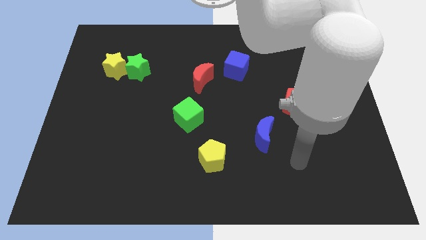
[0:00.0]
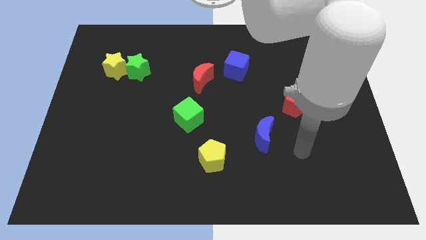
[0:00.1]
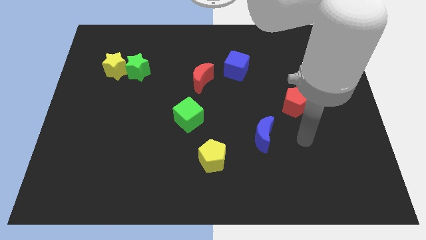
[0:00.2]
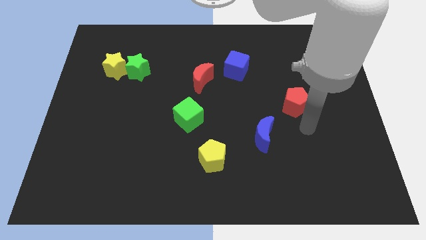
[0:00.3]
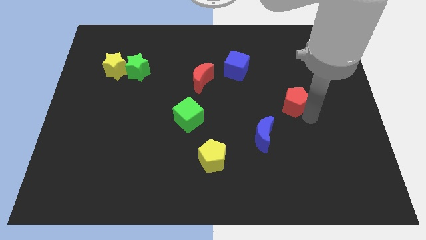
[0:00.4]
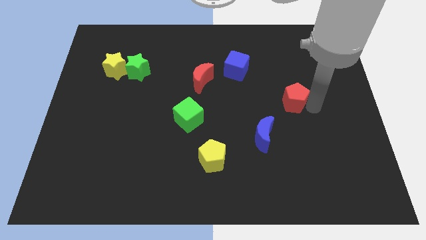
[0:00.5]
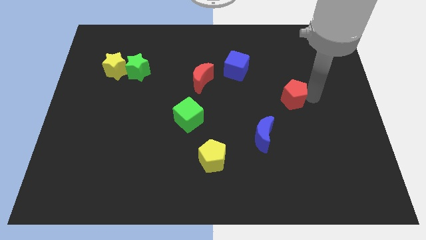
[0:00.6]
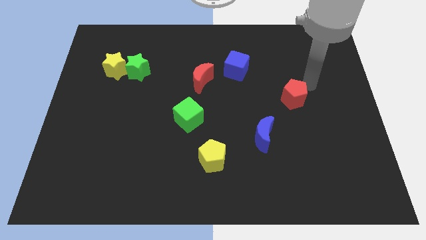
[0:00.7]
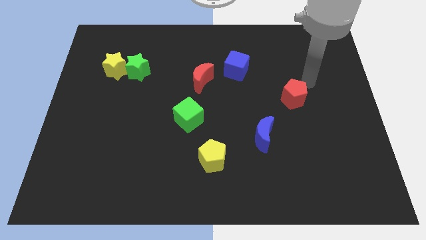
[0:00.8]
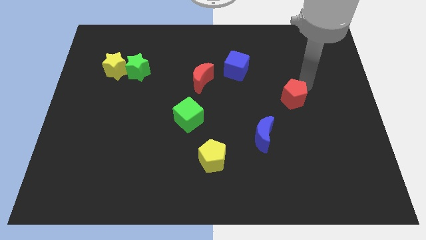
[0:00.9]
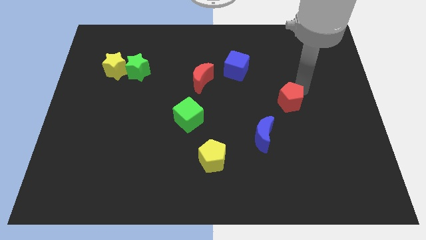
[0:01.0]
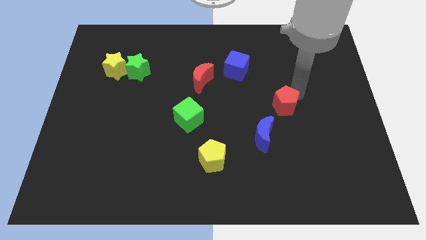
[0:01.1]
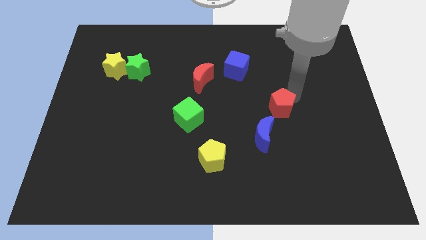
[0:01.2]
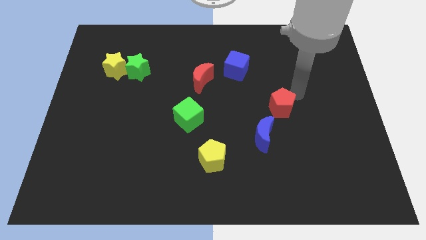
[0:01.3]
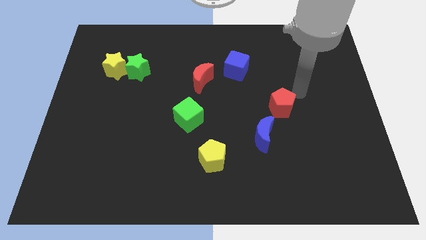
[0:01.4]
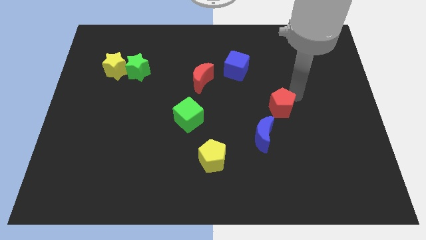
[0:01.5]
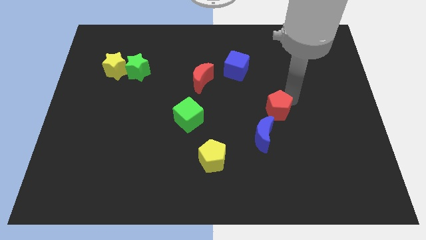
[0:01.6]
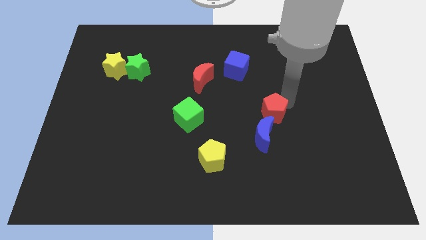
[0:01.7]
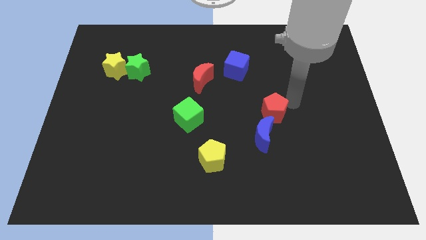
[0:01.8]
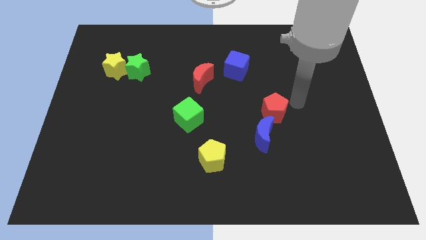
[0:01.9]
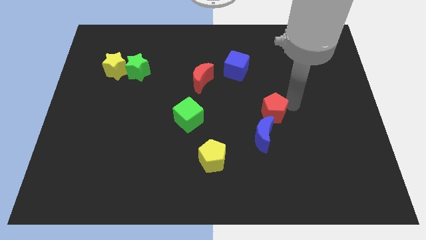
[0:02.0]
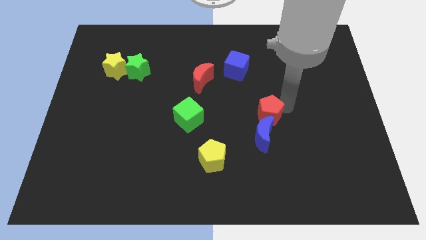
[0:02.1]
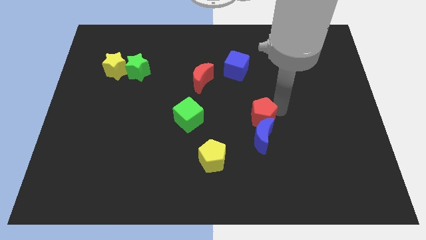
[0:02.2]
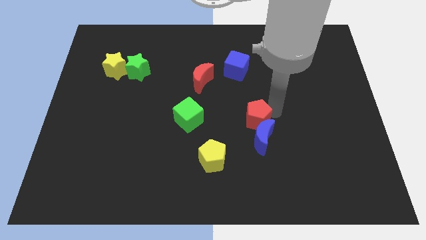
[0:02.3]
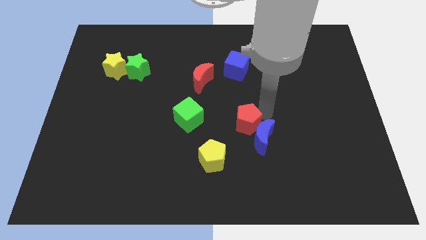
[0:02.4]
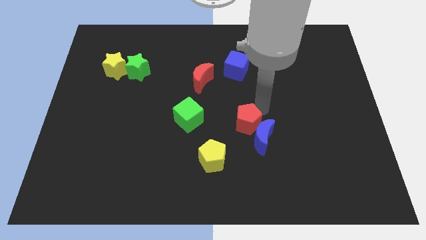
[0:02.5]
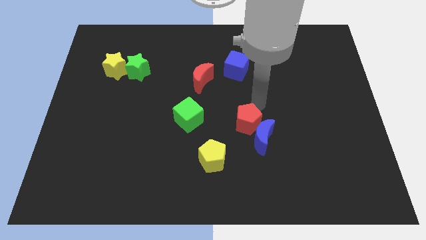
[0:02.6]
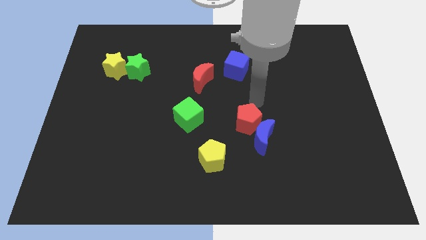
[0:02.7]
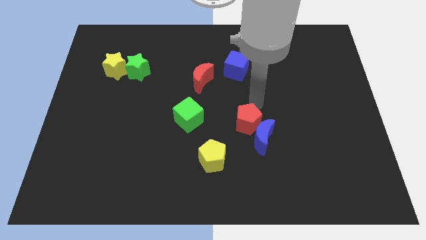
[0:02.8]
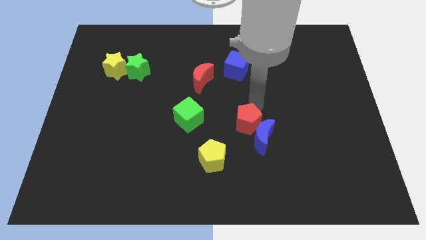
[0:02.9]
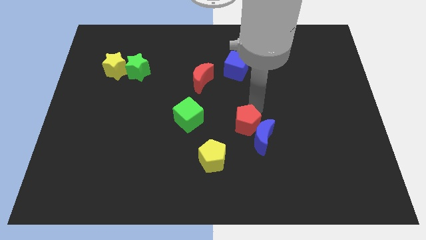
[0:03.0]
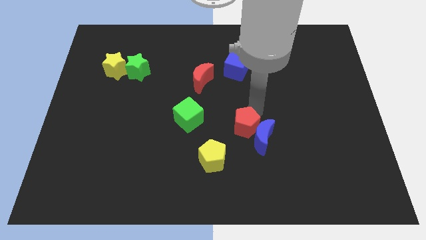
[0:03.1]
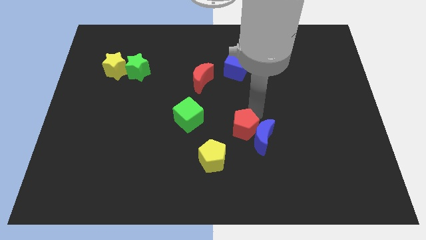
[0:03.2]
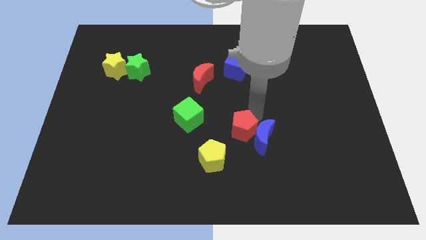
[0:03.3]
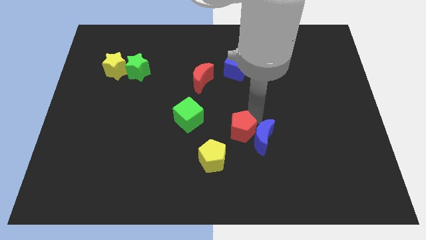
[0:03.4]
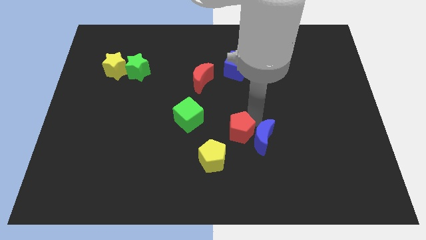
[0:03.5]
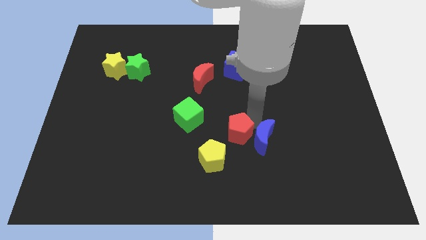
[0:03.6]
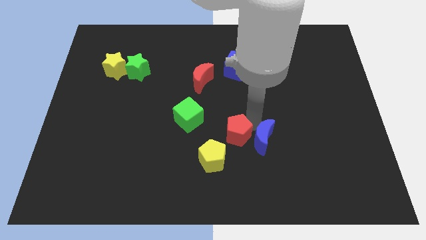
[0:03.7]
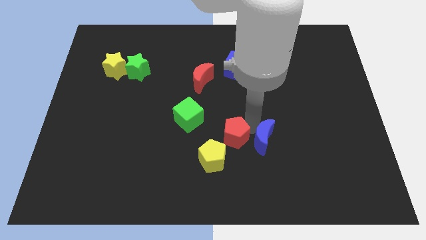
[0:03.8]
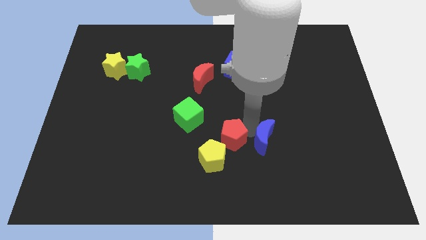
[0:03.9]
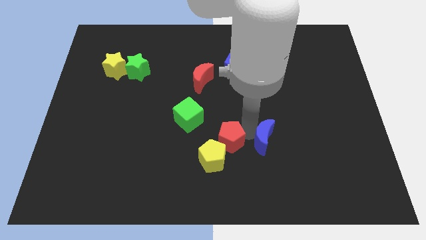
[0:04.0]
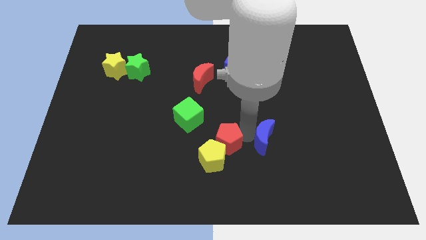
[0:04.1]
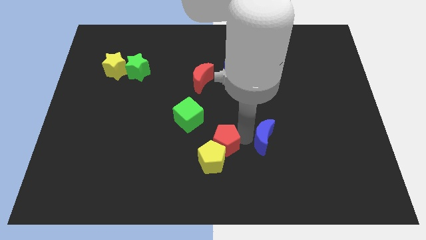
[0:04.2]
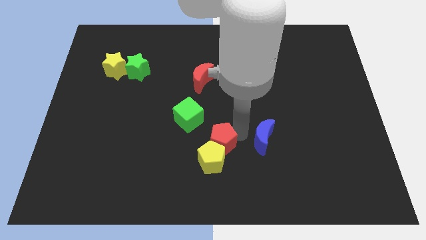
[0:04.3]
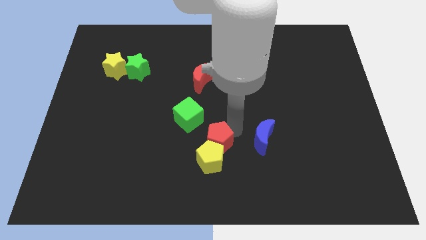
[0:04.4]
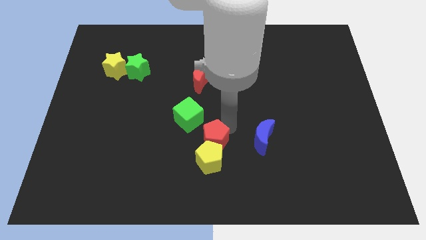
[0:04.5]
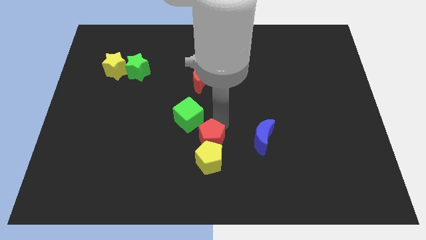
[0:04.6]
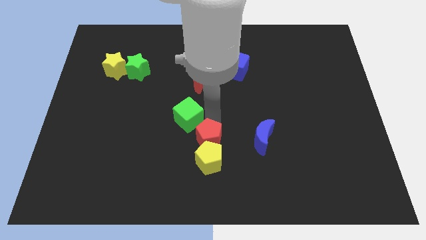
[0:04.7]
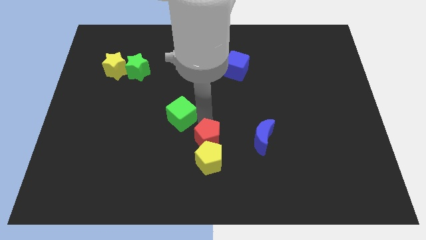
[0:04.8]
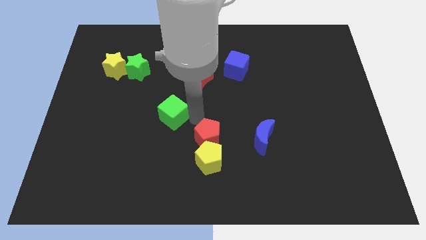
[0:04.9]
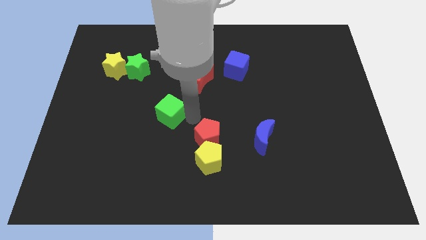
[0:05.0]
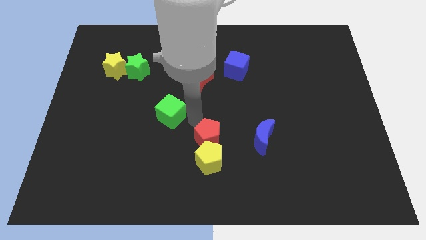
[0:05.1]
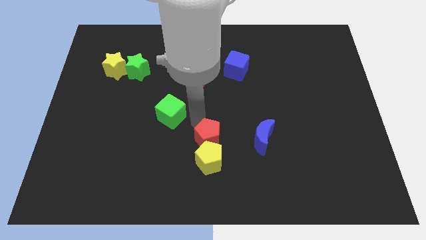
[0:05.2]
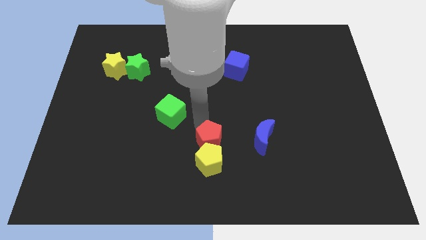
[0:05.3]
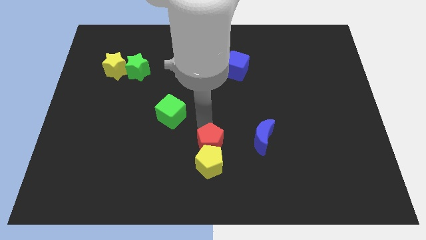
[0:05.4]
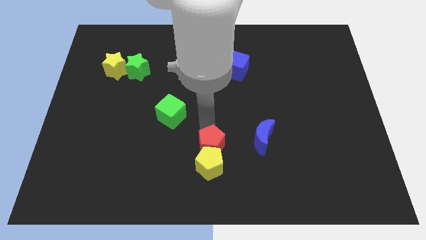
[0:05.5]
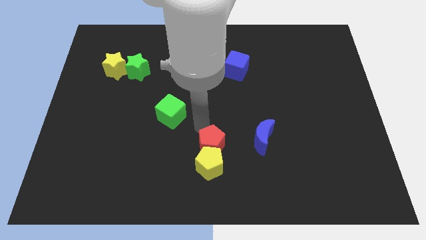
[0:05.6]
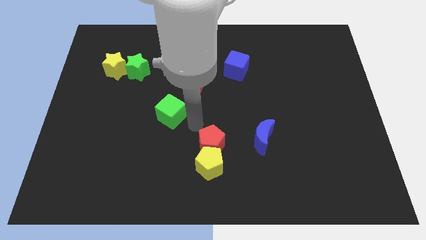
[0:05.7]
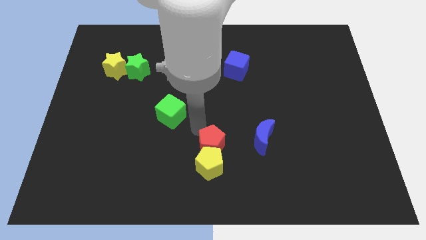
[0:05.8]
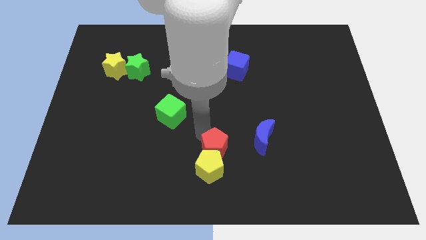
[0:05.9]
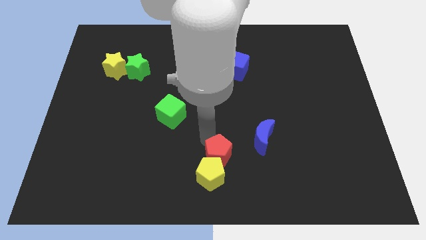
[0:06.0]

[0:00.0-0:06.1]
put the red pentagon to the bottom side

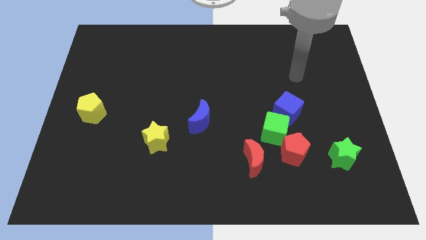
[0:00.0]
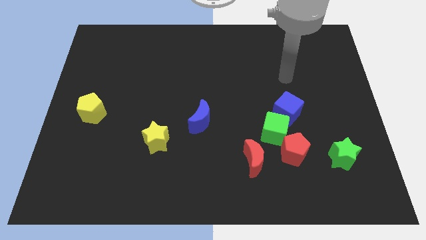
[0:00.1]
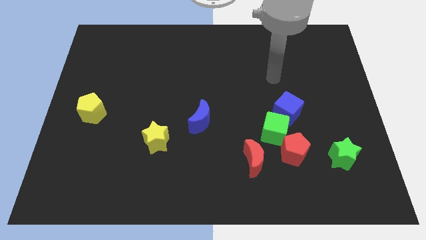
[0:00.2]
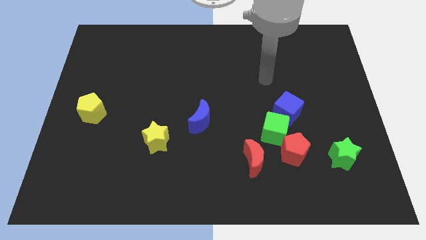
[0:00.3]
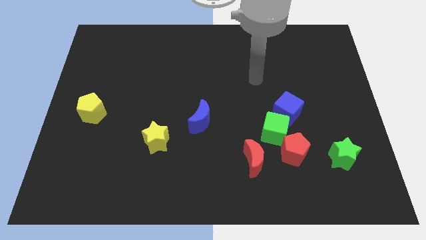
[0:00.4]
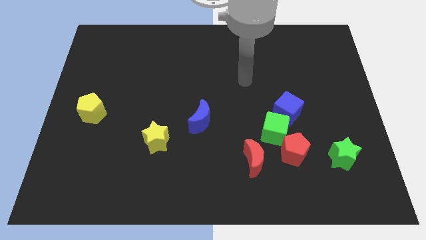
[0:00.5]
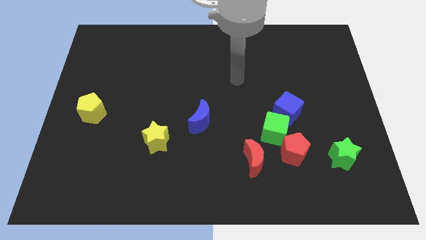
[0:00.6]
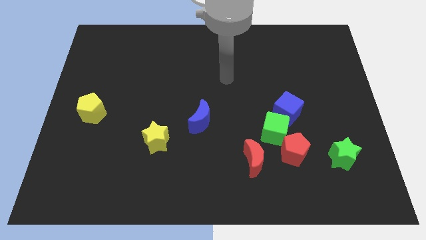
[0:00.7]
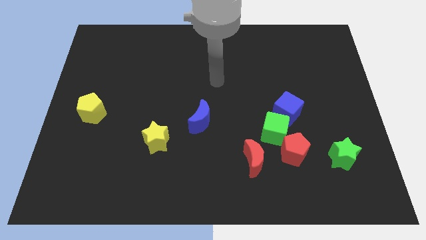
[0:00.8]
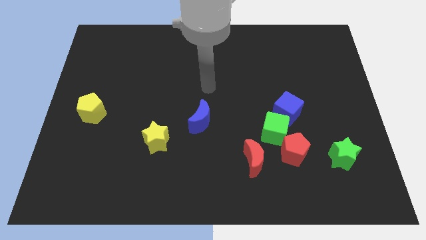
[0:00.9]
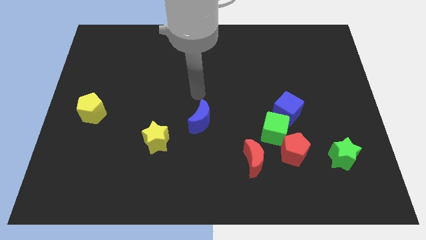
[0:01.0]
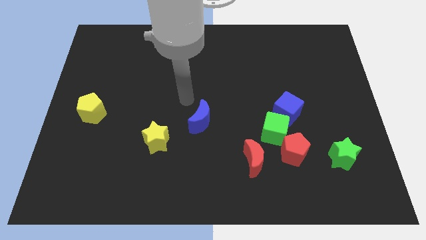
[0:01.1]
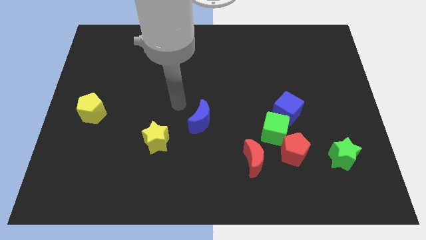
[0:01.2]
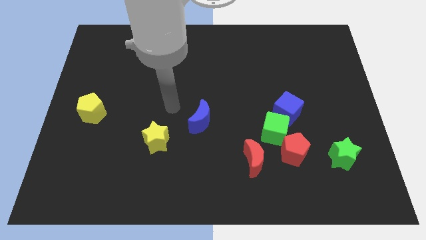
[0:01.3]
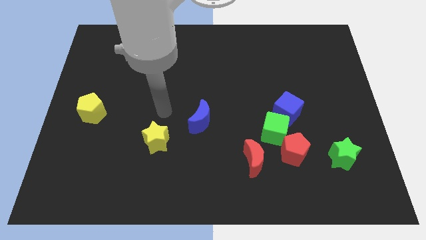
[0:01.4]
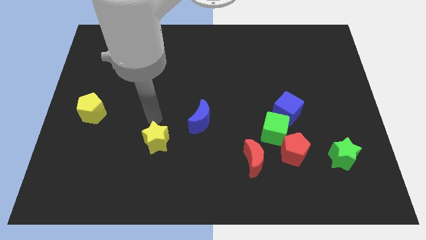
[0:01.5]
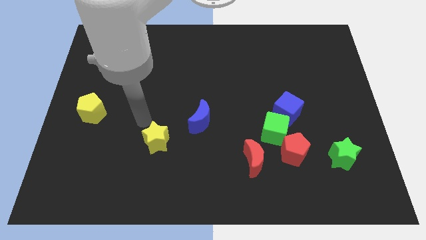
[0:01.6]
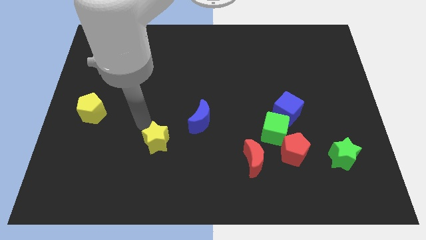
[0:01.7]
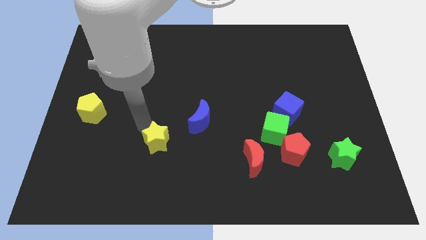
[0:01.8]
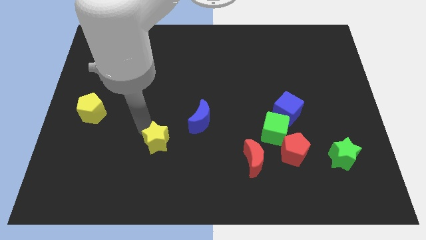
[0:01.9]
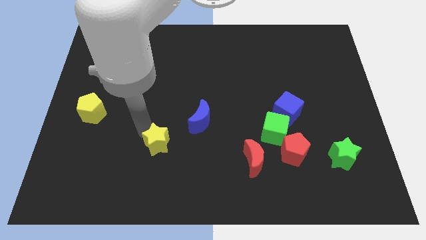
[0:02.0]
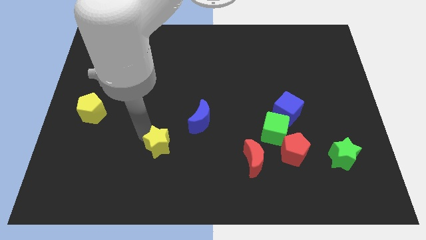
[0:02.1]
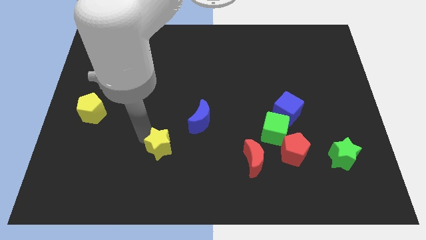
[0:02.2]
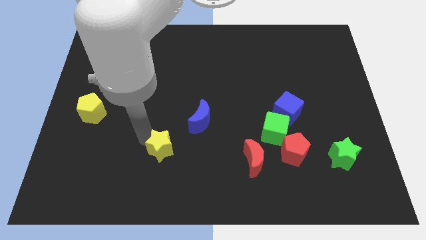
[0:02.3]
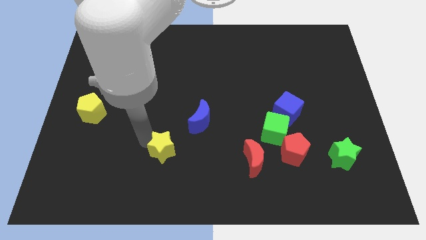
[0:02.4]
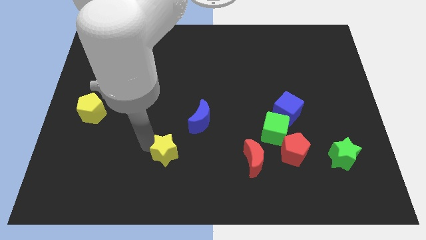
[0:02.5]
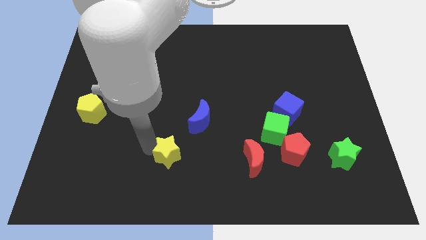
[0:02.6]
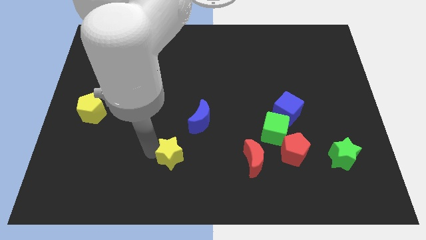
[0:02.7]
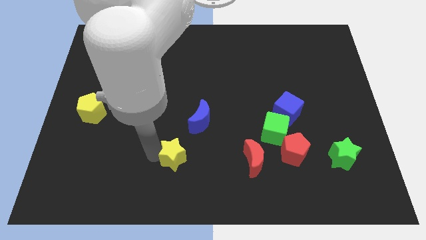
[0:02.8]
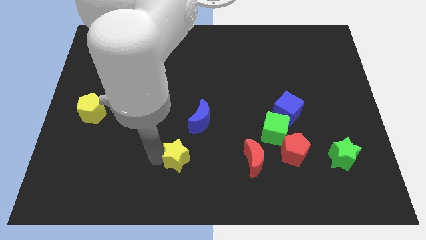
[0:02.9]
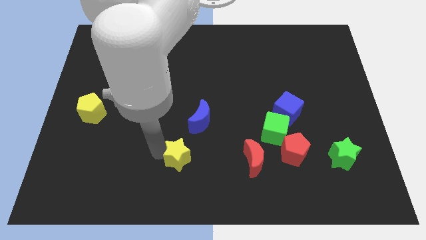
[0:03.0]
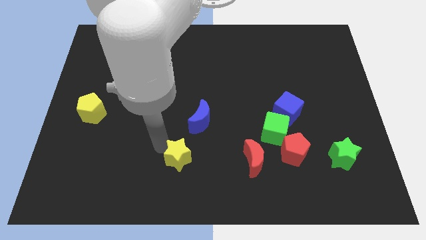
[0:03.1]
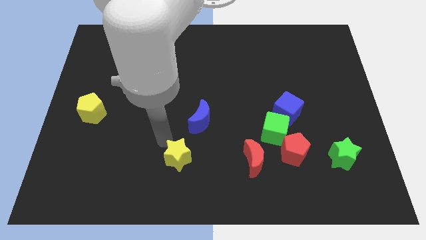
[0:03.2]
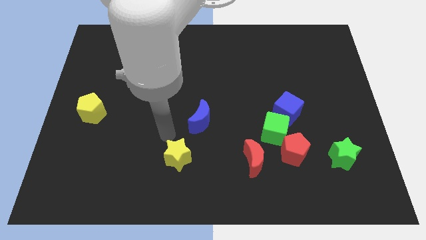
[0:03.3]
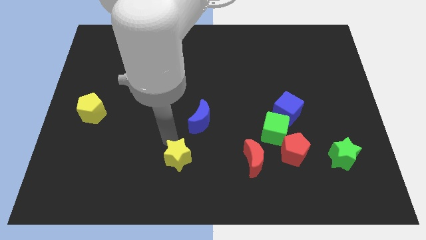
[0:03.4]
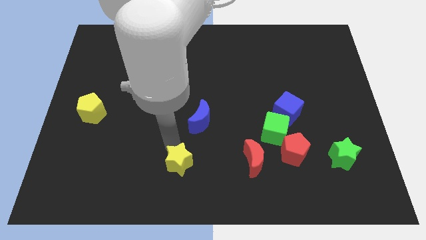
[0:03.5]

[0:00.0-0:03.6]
slide the yellow star to the bottom
